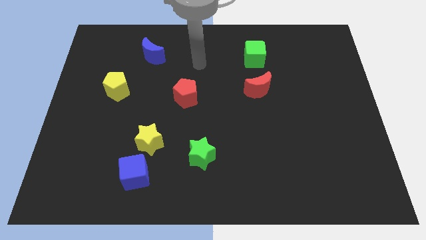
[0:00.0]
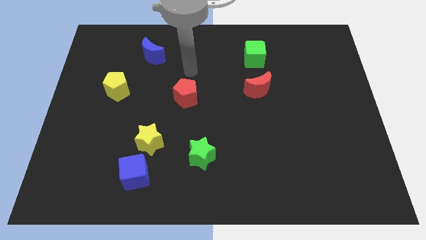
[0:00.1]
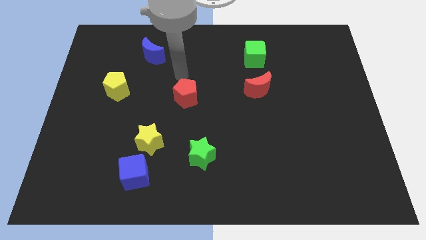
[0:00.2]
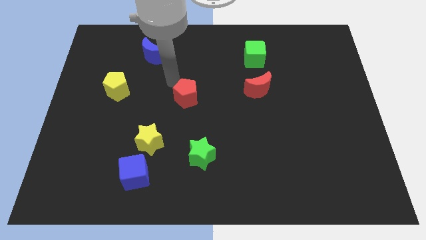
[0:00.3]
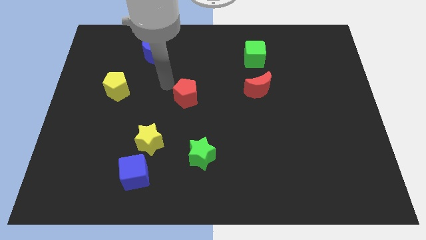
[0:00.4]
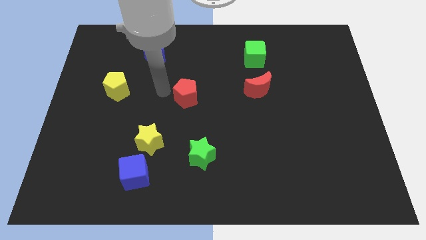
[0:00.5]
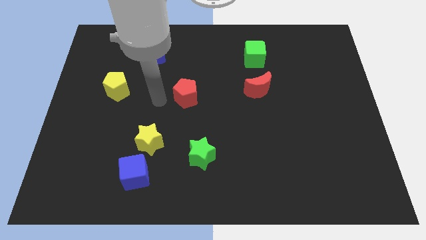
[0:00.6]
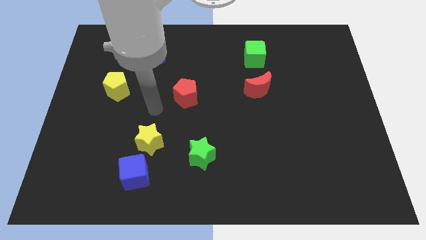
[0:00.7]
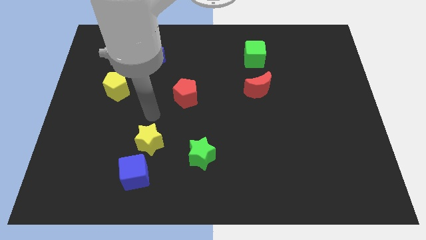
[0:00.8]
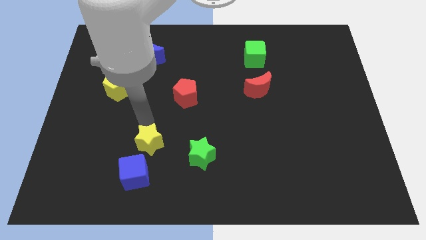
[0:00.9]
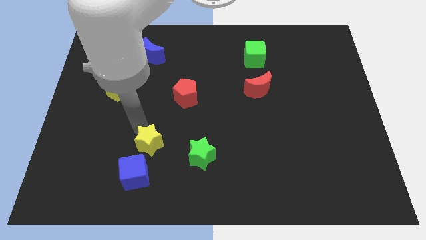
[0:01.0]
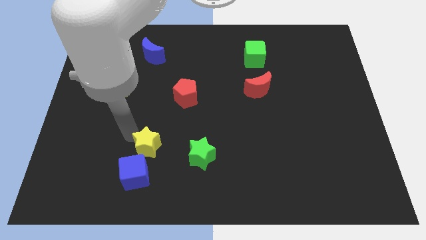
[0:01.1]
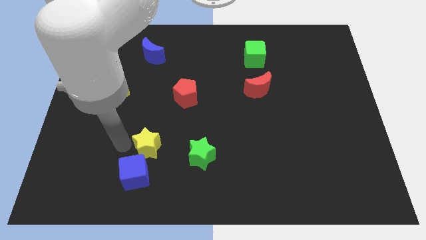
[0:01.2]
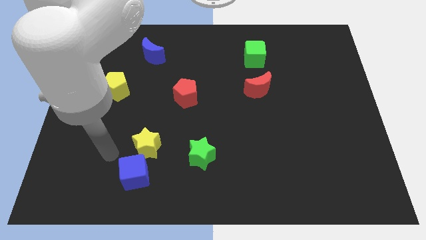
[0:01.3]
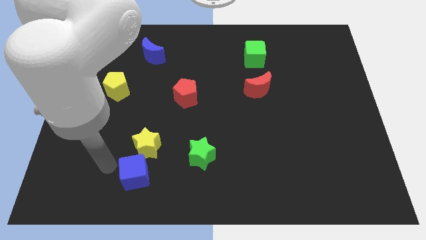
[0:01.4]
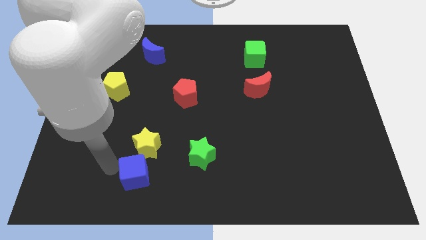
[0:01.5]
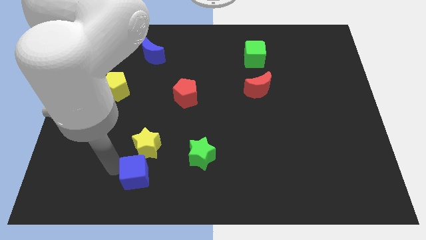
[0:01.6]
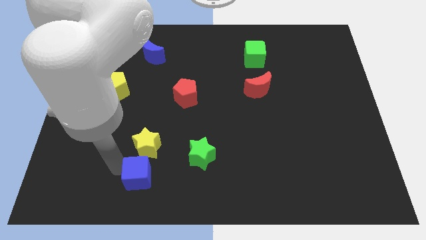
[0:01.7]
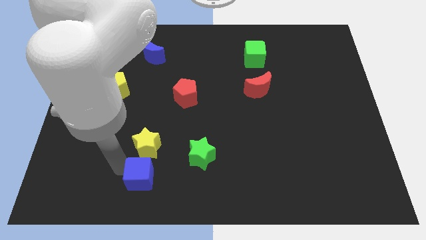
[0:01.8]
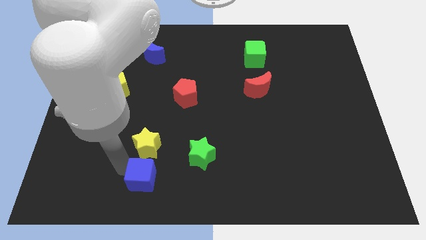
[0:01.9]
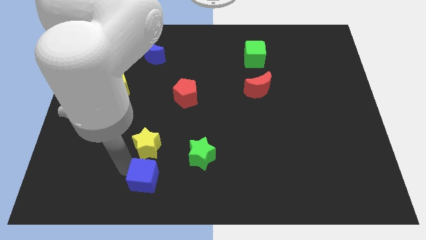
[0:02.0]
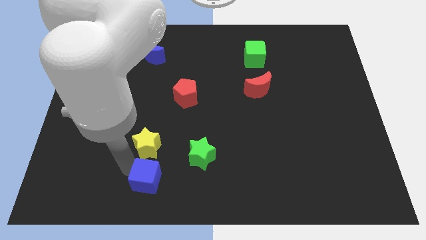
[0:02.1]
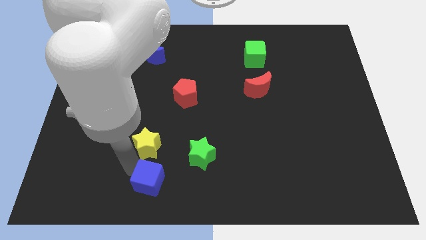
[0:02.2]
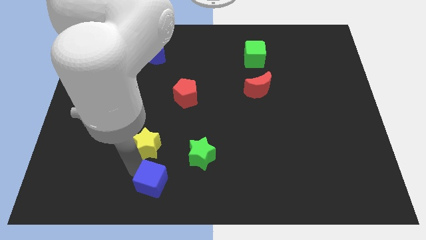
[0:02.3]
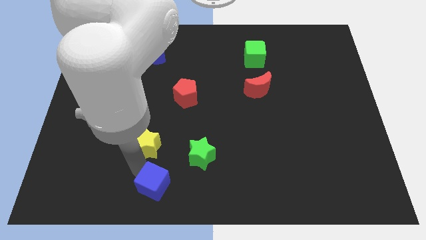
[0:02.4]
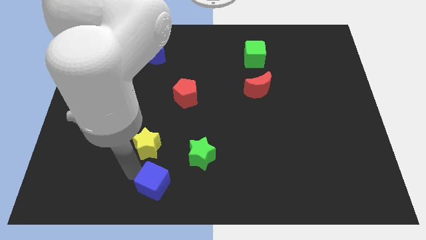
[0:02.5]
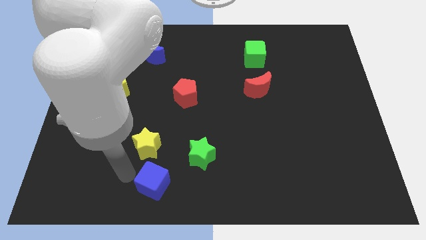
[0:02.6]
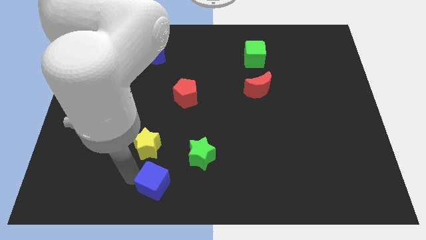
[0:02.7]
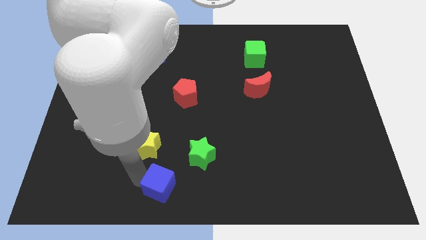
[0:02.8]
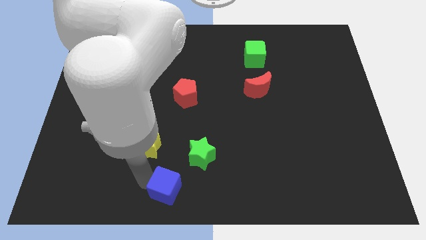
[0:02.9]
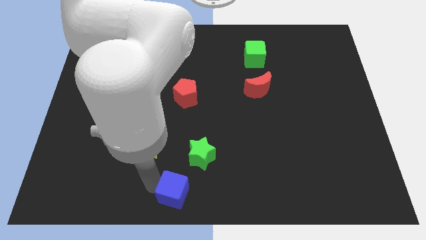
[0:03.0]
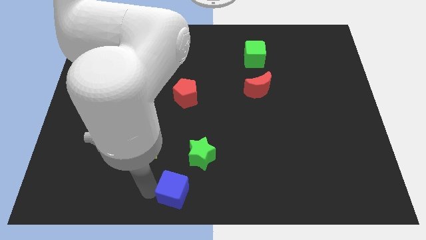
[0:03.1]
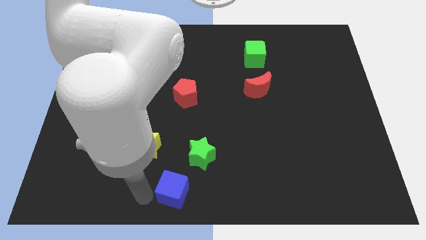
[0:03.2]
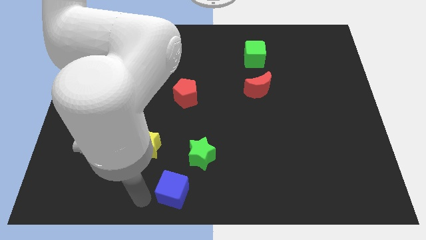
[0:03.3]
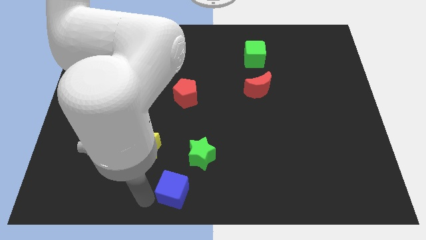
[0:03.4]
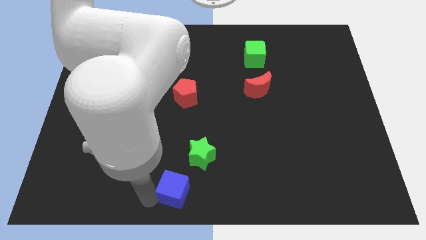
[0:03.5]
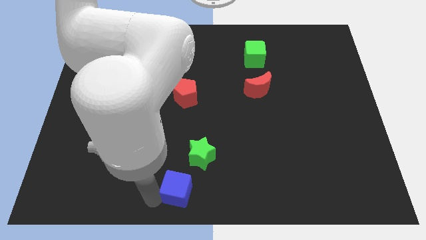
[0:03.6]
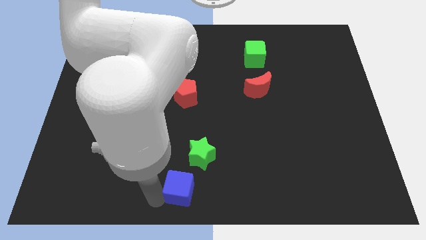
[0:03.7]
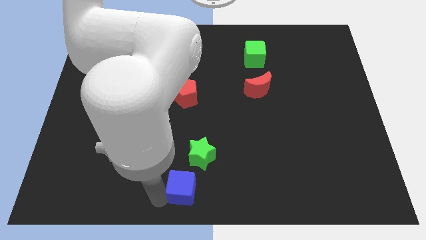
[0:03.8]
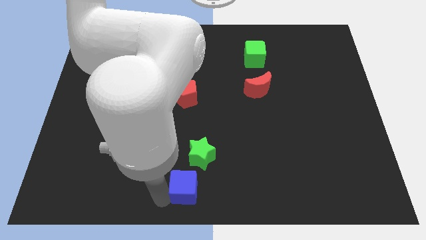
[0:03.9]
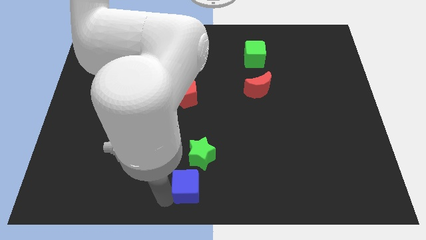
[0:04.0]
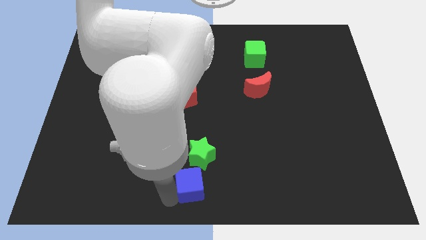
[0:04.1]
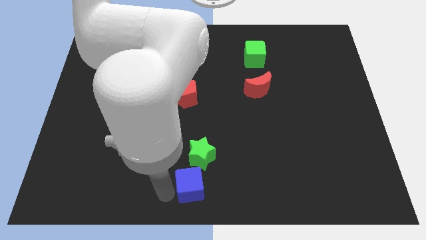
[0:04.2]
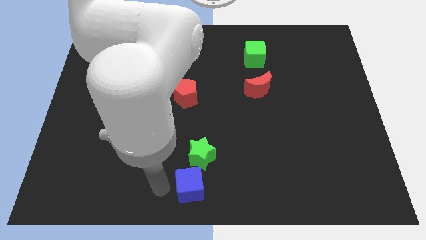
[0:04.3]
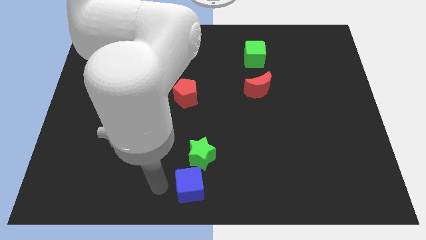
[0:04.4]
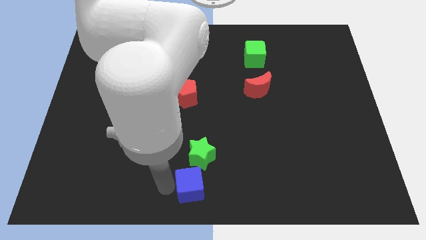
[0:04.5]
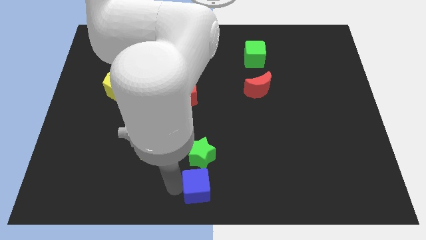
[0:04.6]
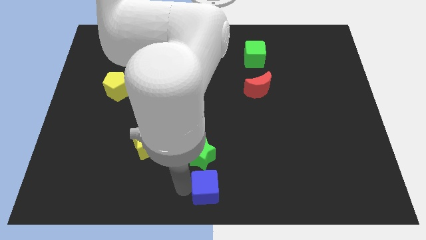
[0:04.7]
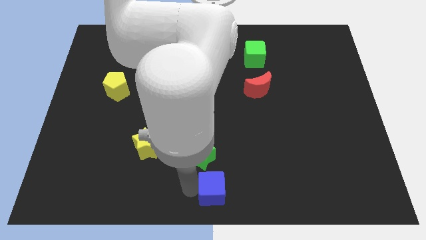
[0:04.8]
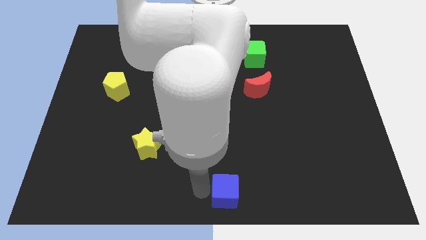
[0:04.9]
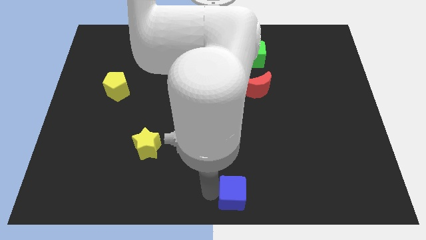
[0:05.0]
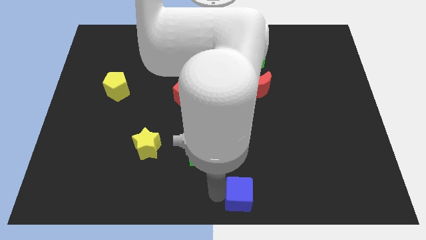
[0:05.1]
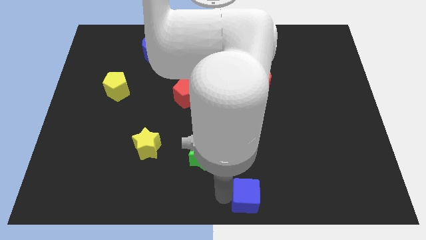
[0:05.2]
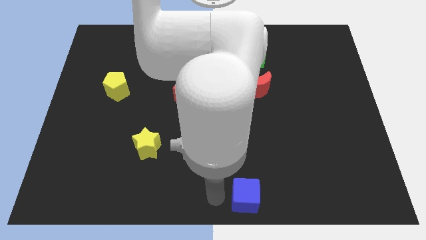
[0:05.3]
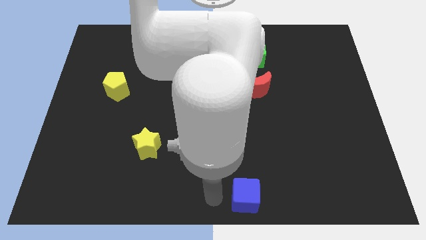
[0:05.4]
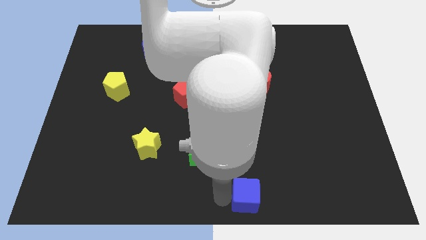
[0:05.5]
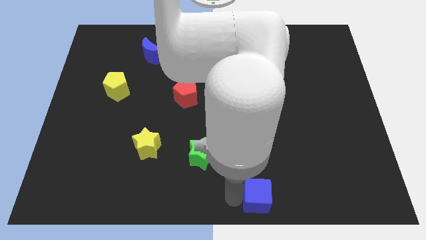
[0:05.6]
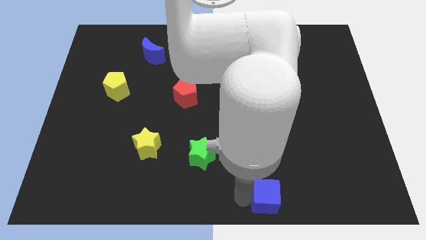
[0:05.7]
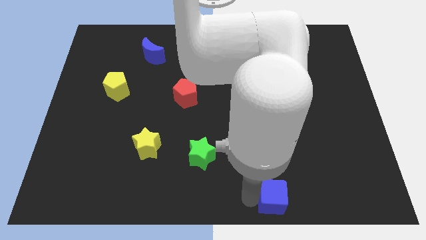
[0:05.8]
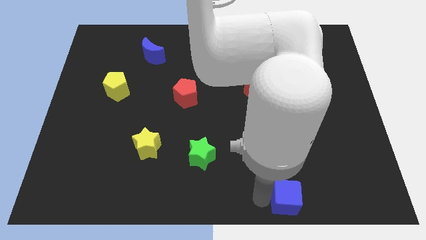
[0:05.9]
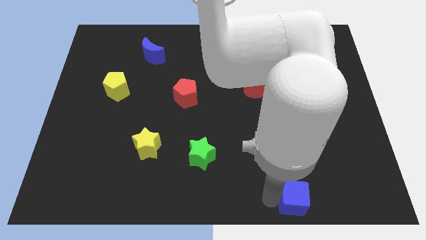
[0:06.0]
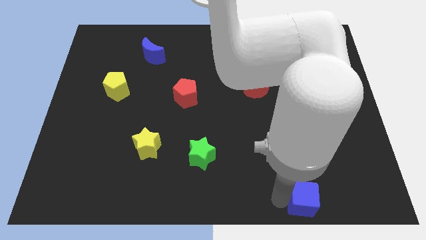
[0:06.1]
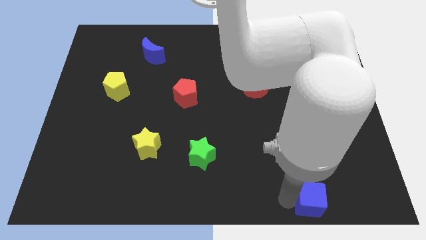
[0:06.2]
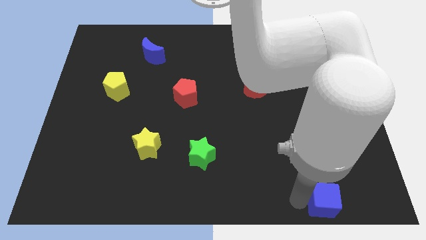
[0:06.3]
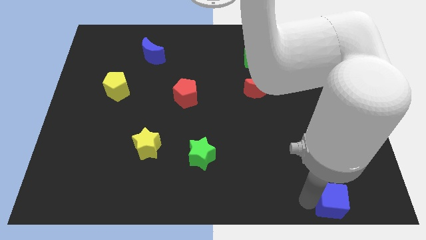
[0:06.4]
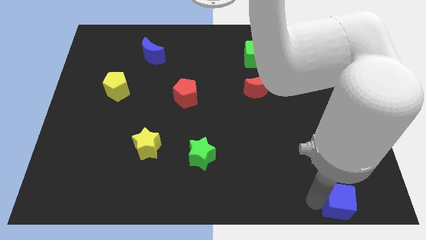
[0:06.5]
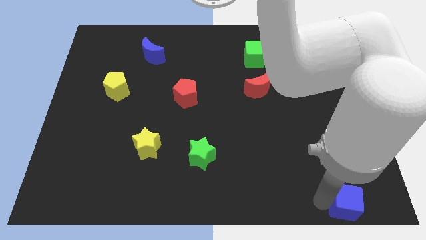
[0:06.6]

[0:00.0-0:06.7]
push the blue cube to the lower right corner

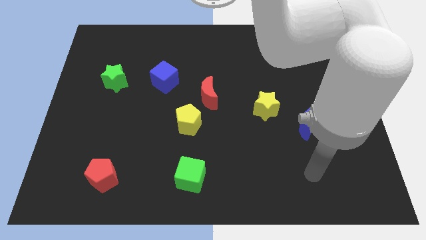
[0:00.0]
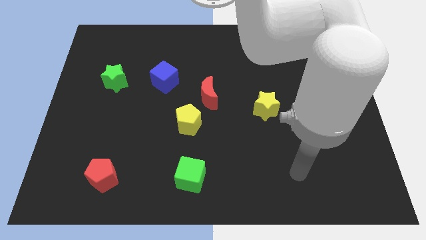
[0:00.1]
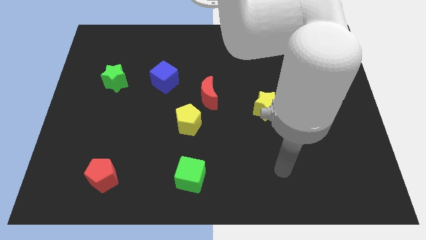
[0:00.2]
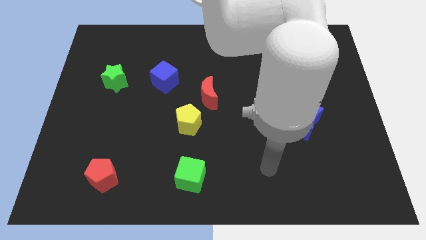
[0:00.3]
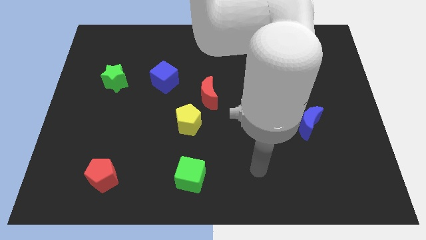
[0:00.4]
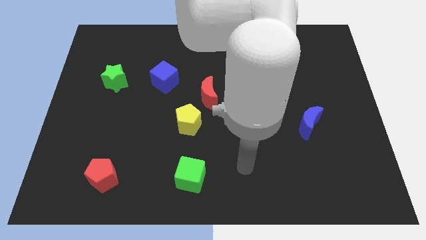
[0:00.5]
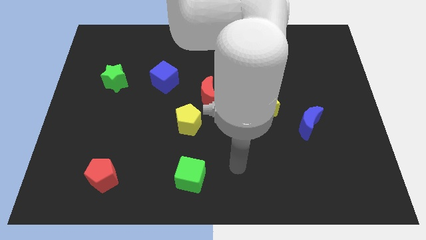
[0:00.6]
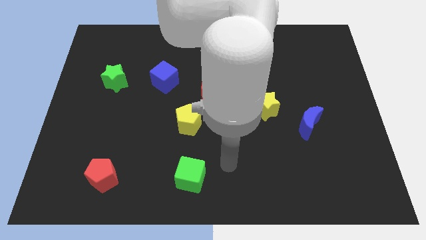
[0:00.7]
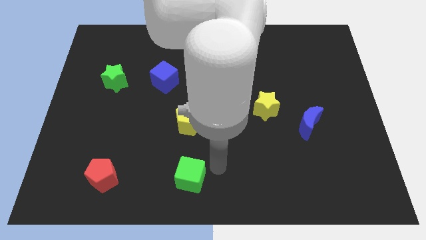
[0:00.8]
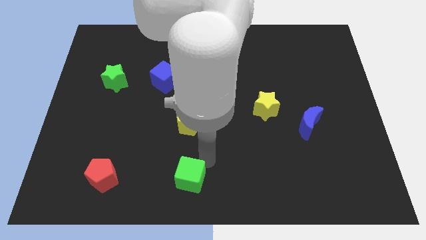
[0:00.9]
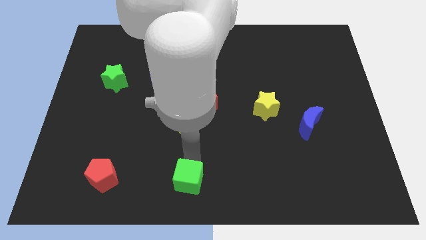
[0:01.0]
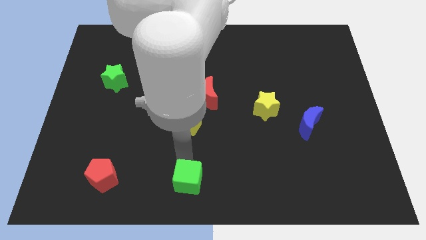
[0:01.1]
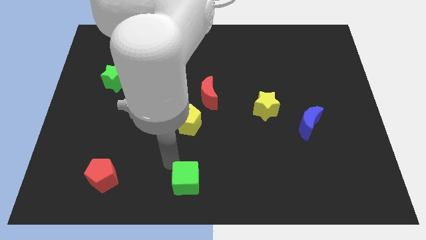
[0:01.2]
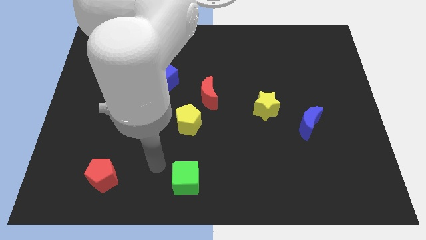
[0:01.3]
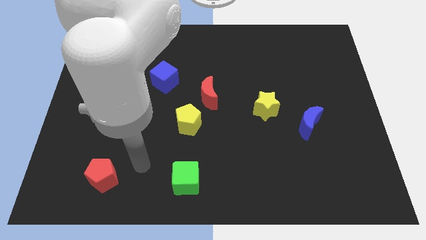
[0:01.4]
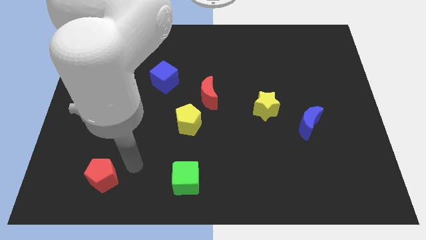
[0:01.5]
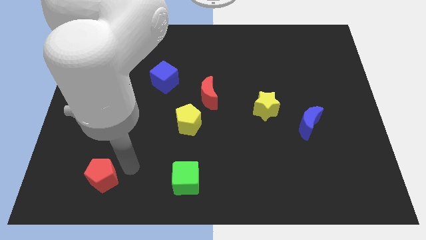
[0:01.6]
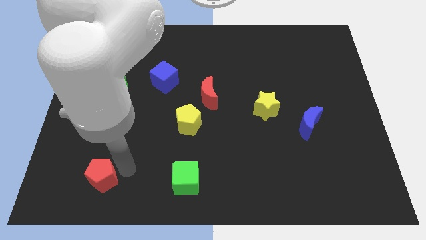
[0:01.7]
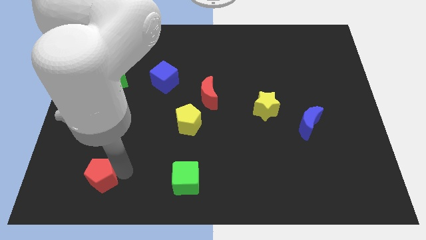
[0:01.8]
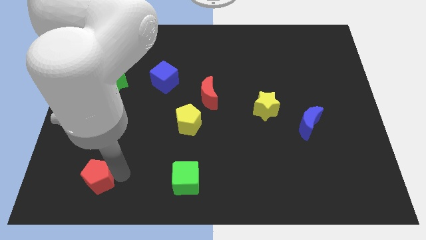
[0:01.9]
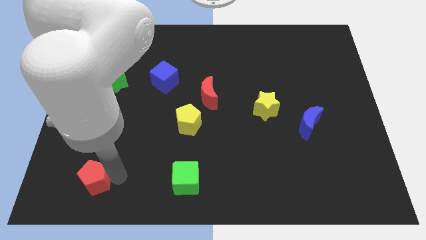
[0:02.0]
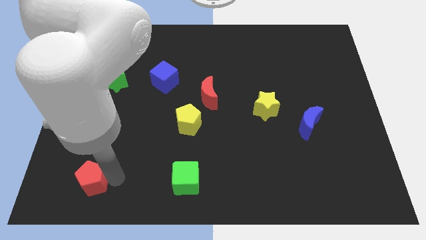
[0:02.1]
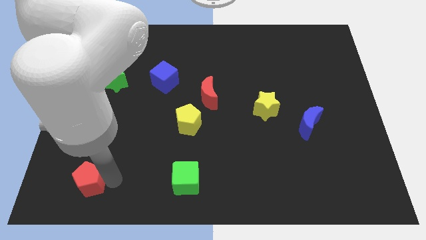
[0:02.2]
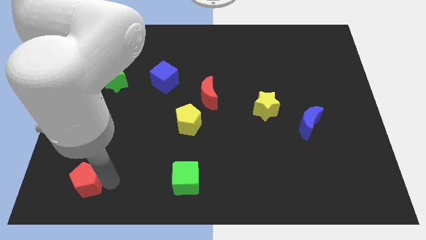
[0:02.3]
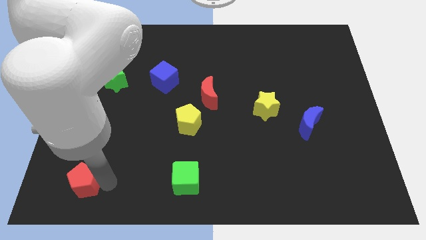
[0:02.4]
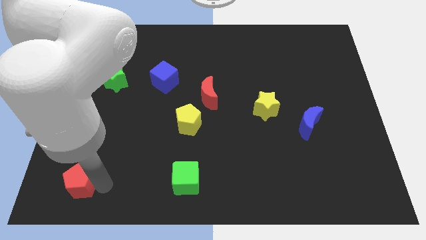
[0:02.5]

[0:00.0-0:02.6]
move the red pentagon to the bottom left
